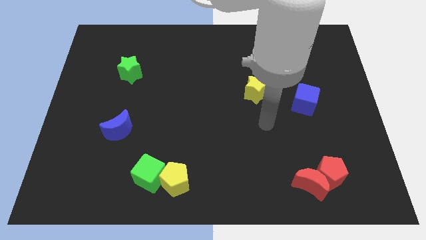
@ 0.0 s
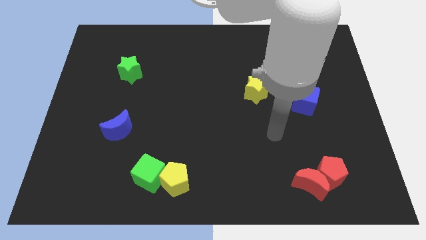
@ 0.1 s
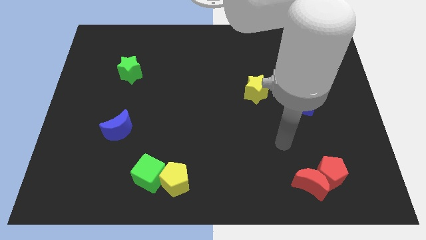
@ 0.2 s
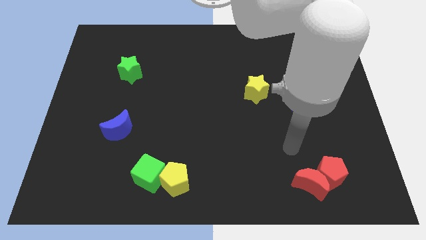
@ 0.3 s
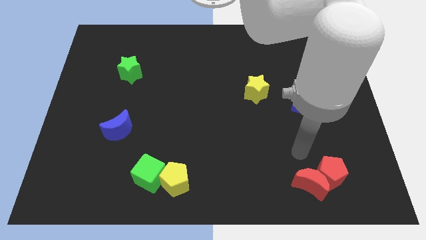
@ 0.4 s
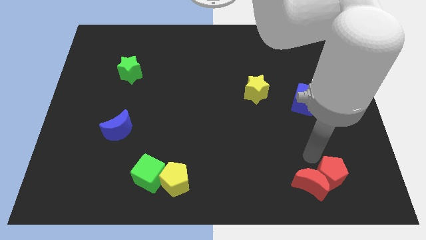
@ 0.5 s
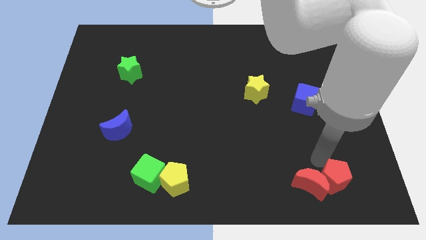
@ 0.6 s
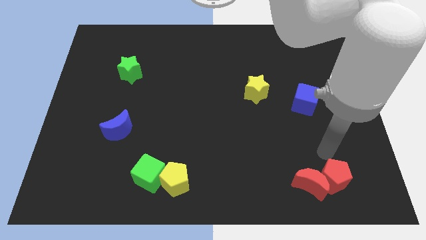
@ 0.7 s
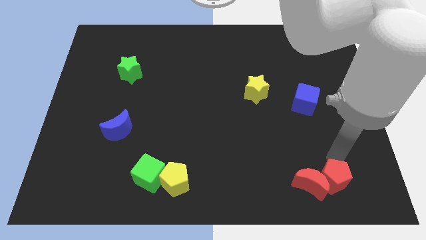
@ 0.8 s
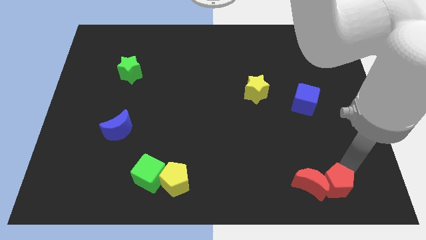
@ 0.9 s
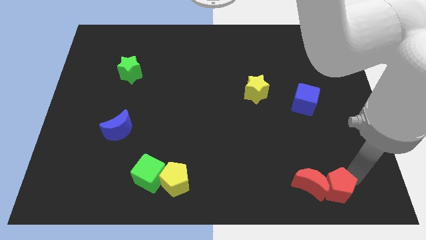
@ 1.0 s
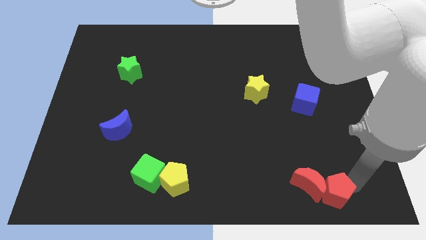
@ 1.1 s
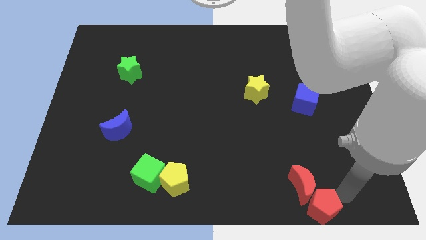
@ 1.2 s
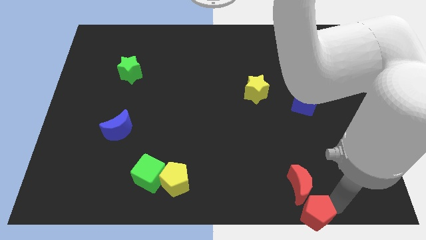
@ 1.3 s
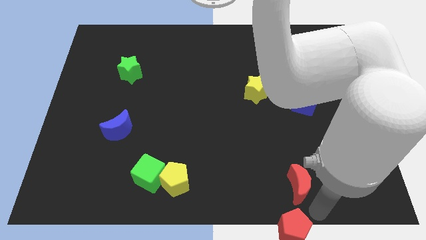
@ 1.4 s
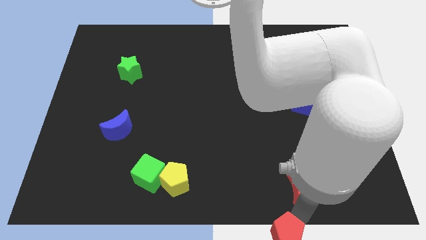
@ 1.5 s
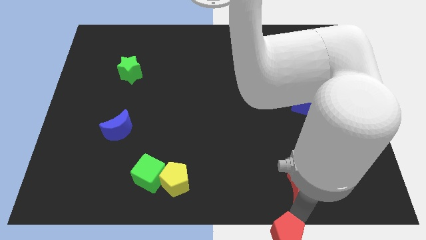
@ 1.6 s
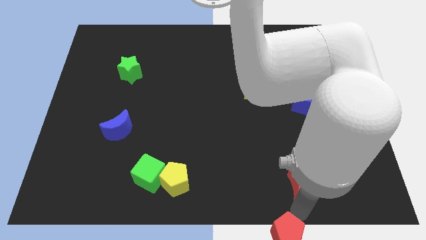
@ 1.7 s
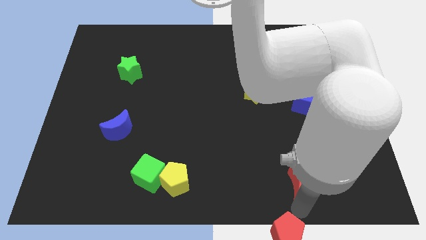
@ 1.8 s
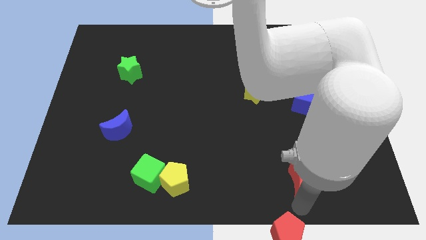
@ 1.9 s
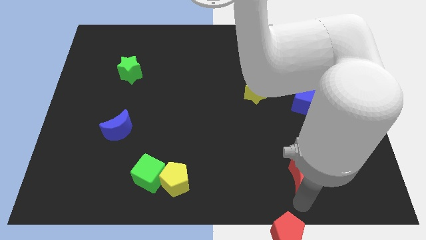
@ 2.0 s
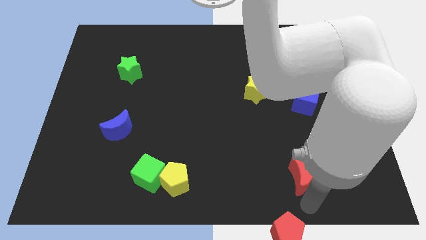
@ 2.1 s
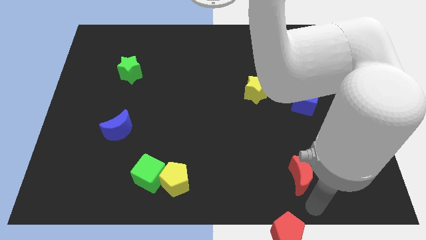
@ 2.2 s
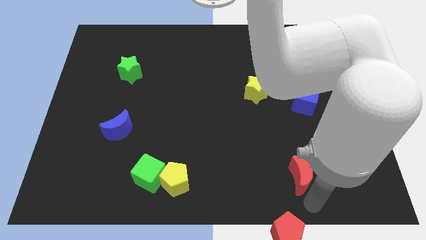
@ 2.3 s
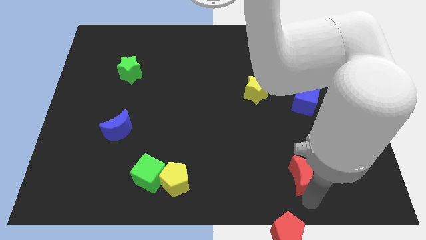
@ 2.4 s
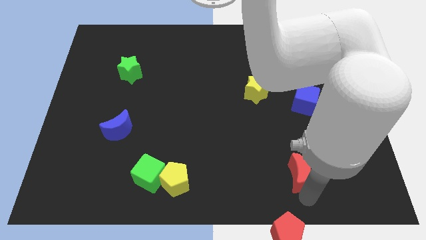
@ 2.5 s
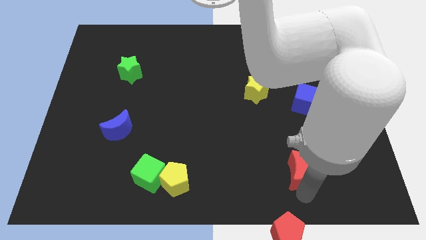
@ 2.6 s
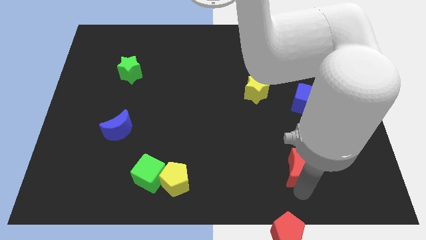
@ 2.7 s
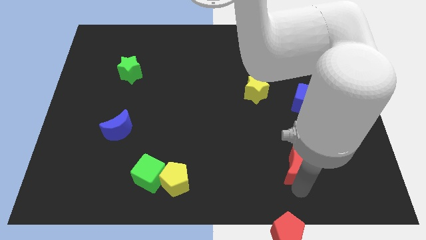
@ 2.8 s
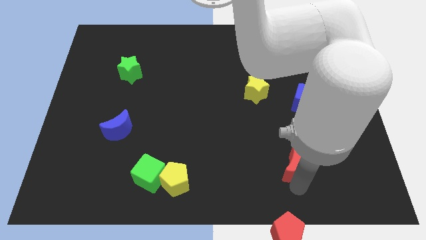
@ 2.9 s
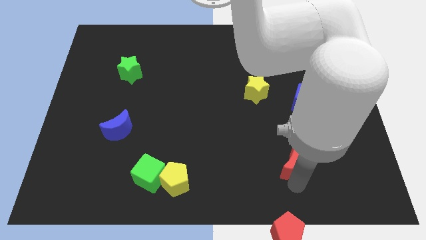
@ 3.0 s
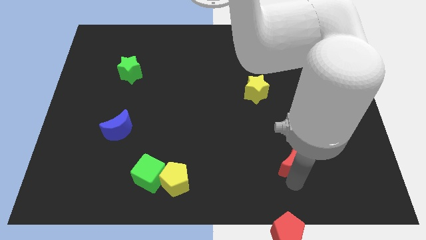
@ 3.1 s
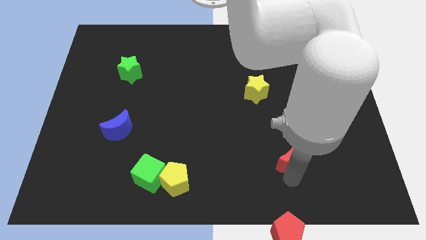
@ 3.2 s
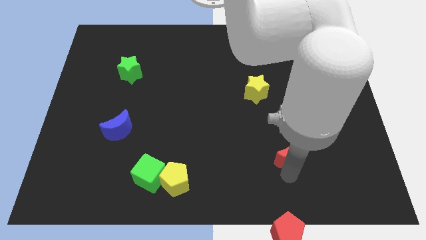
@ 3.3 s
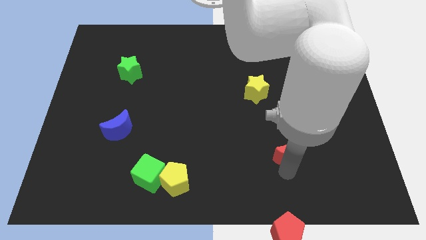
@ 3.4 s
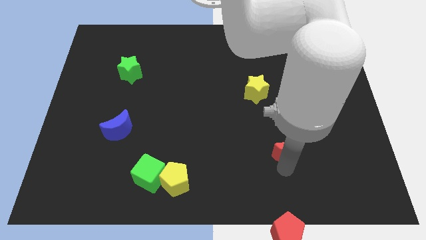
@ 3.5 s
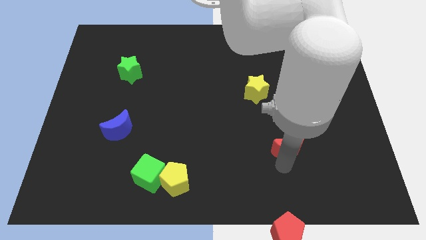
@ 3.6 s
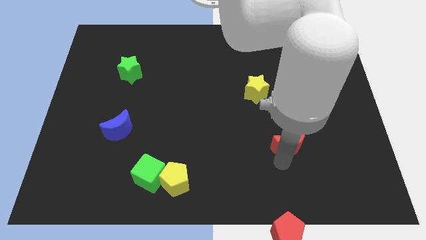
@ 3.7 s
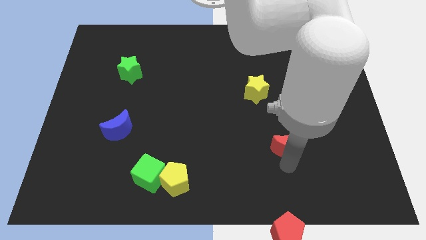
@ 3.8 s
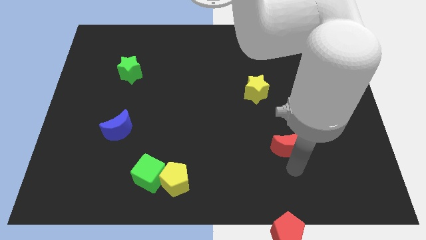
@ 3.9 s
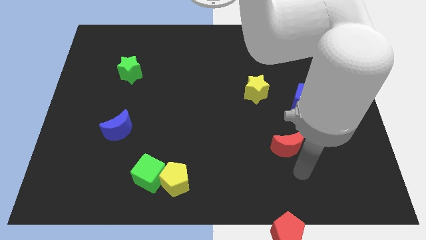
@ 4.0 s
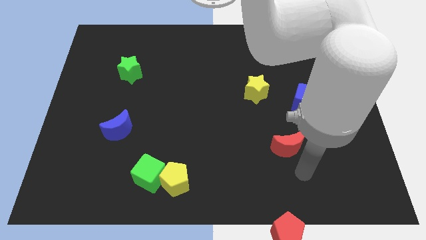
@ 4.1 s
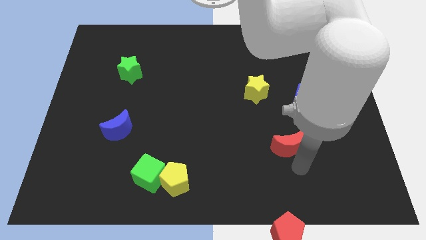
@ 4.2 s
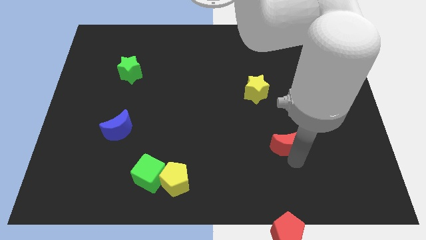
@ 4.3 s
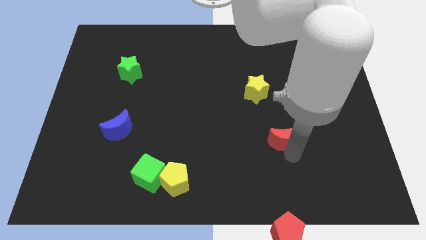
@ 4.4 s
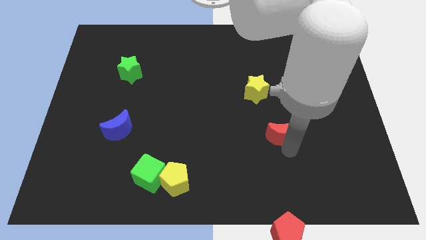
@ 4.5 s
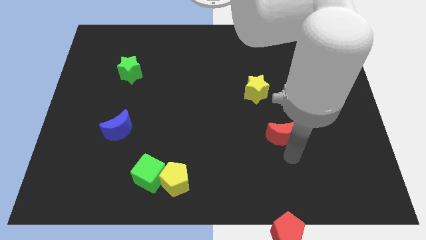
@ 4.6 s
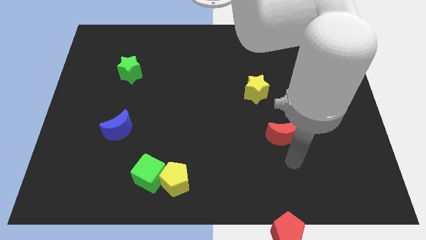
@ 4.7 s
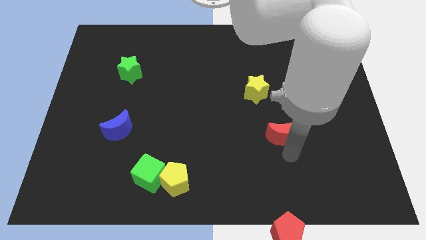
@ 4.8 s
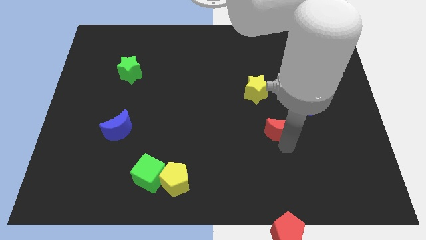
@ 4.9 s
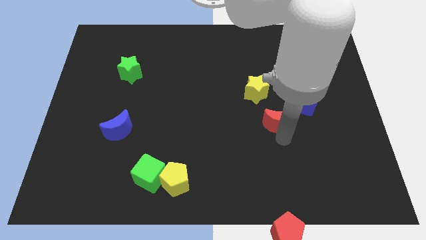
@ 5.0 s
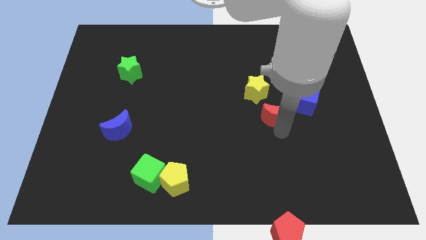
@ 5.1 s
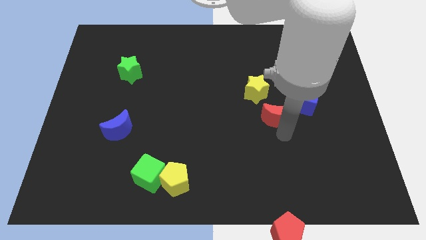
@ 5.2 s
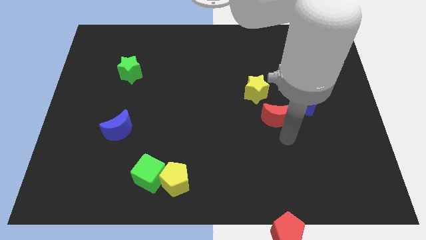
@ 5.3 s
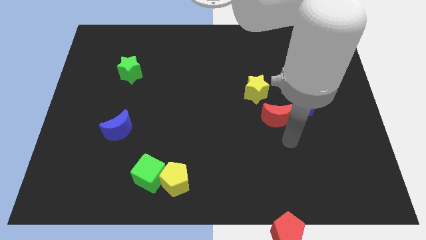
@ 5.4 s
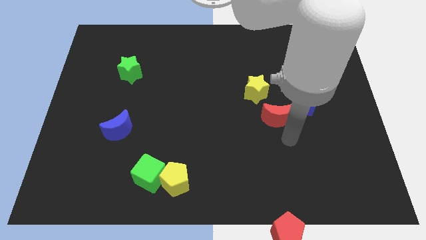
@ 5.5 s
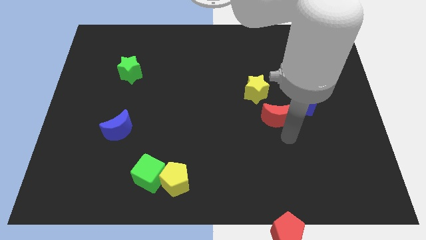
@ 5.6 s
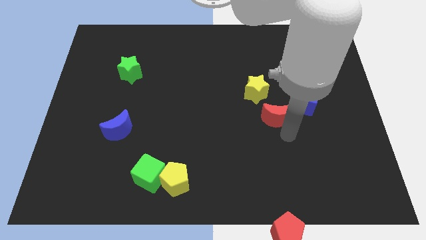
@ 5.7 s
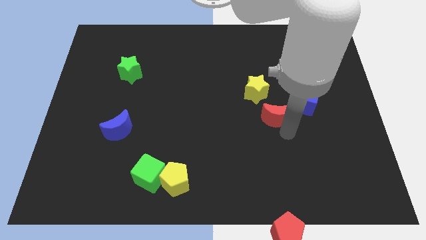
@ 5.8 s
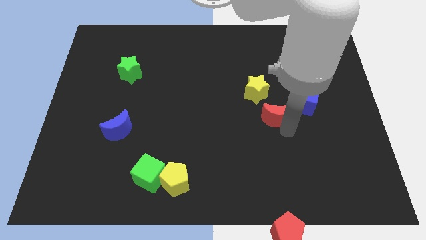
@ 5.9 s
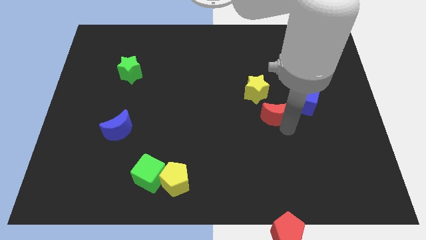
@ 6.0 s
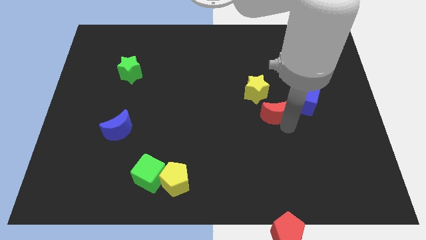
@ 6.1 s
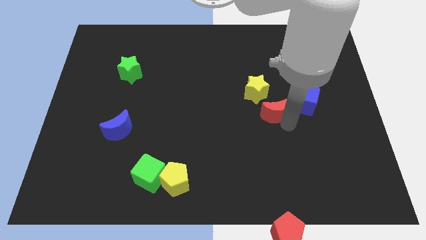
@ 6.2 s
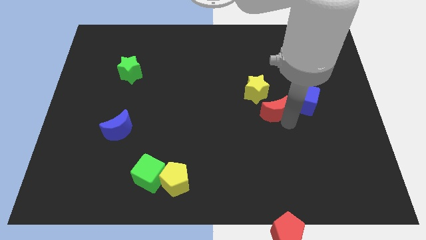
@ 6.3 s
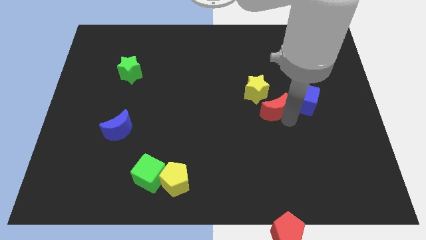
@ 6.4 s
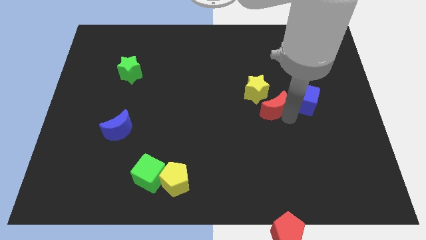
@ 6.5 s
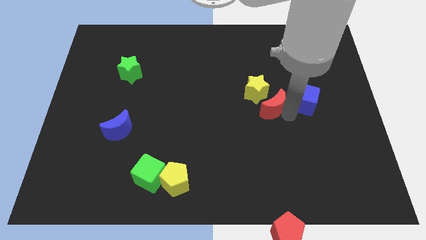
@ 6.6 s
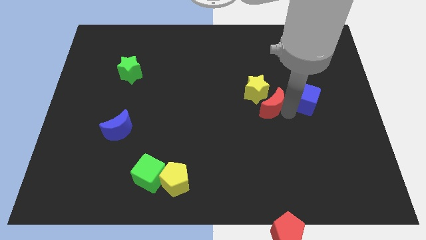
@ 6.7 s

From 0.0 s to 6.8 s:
put the red moon close to the yellow star
